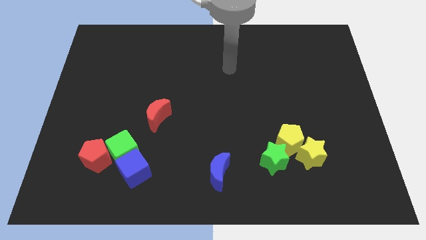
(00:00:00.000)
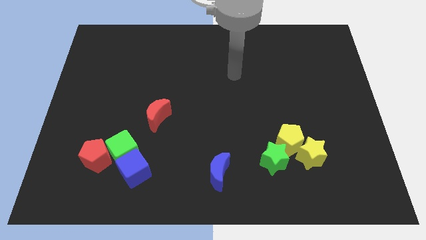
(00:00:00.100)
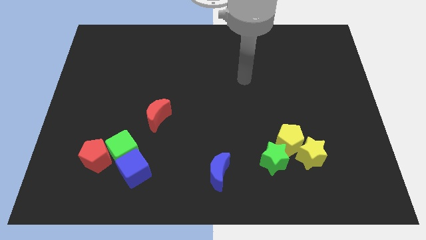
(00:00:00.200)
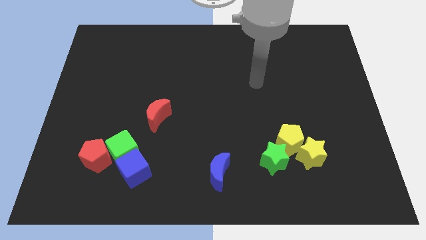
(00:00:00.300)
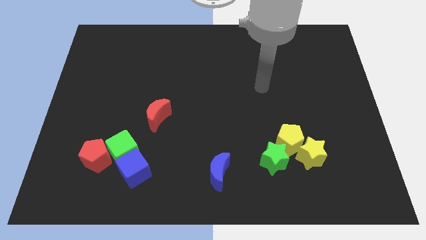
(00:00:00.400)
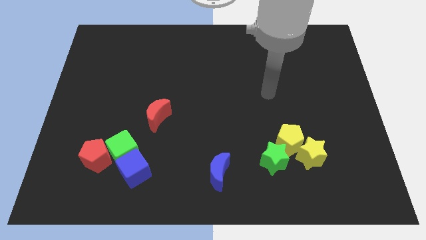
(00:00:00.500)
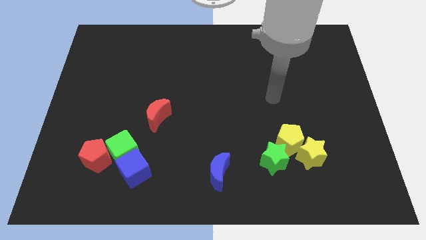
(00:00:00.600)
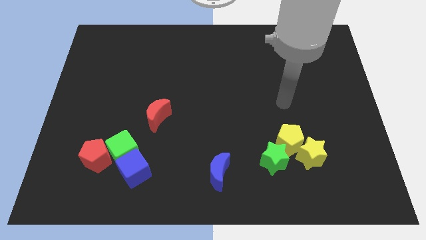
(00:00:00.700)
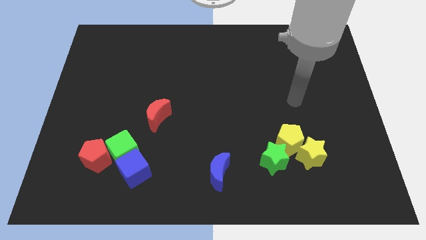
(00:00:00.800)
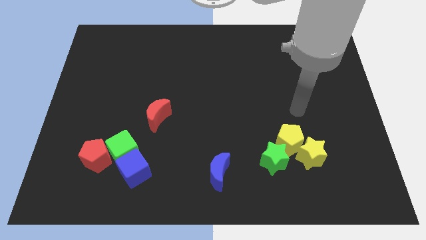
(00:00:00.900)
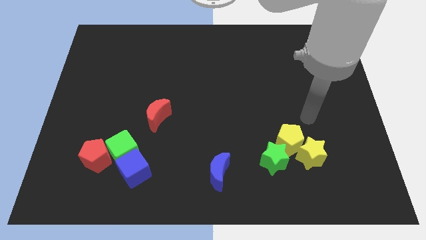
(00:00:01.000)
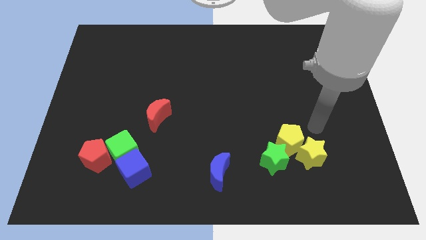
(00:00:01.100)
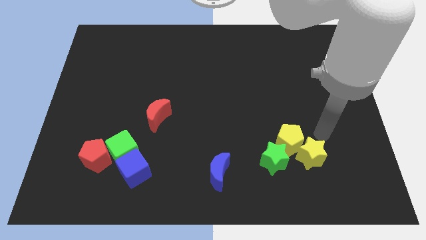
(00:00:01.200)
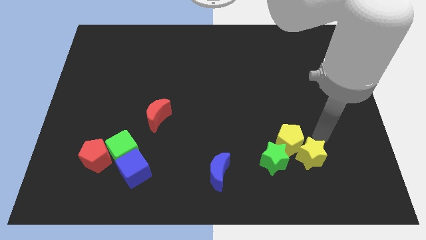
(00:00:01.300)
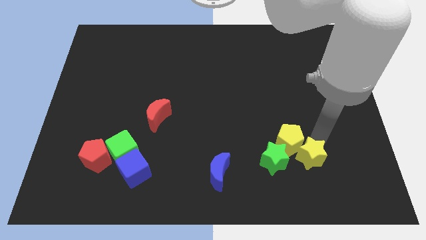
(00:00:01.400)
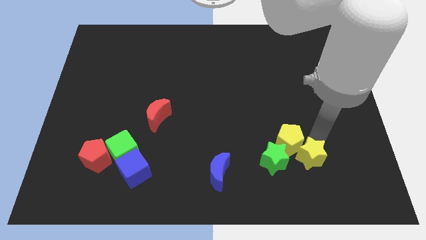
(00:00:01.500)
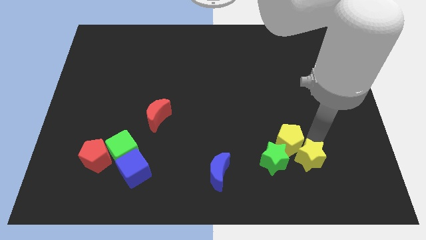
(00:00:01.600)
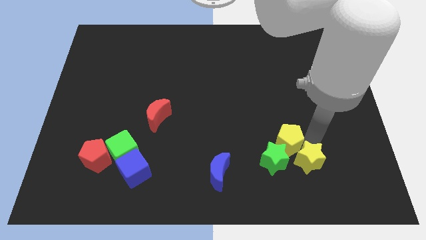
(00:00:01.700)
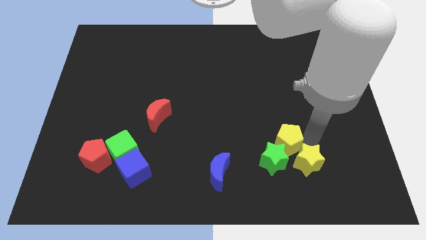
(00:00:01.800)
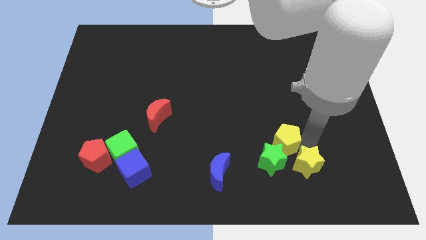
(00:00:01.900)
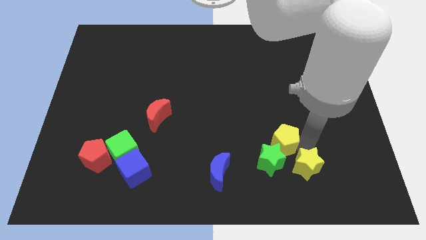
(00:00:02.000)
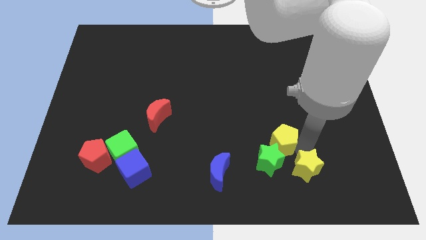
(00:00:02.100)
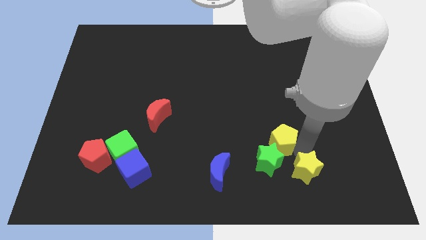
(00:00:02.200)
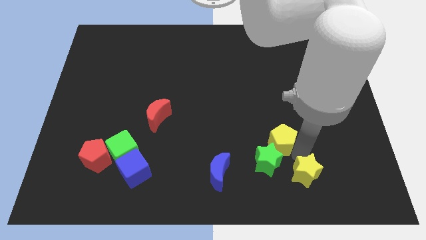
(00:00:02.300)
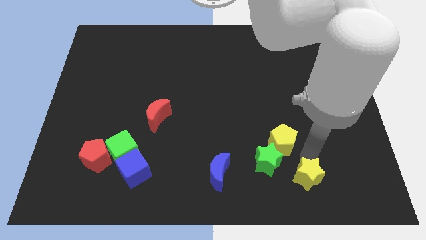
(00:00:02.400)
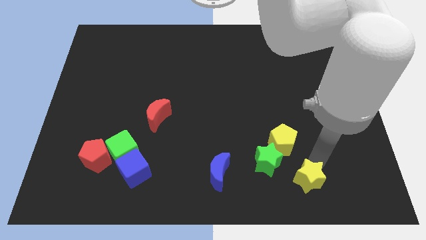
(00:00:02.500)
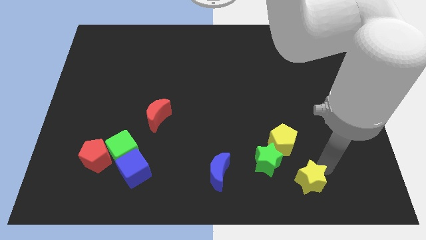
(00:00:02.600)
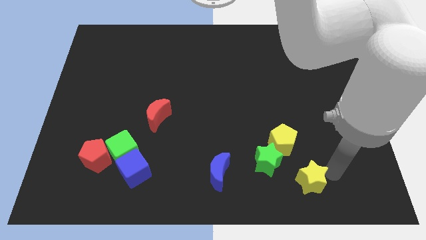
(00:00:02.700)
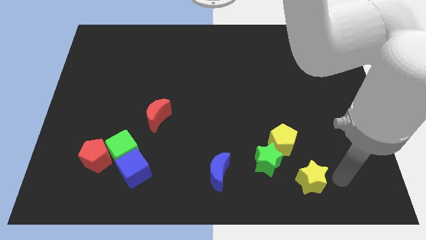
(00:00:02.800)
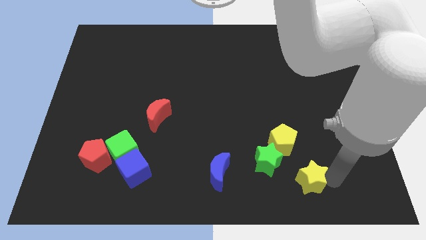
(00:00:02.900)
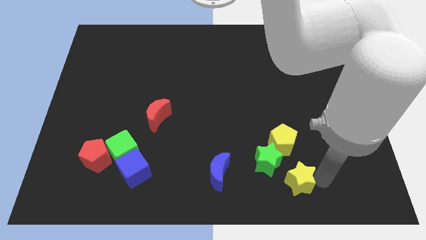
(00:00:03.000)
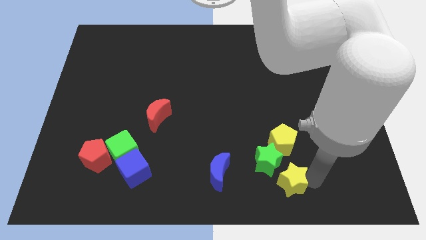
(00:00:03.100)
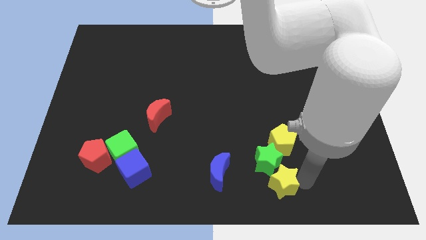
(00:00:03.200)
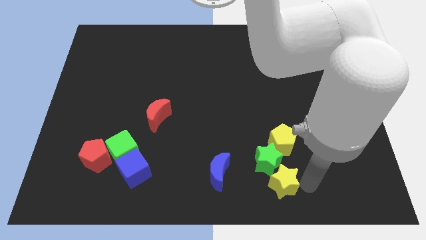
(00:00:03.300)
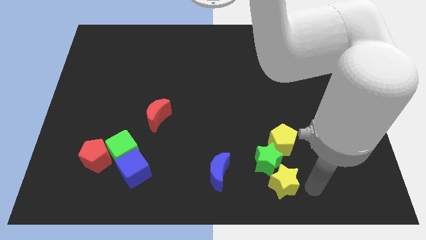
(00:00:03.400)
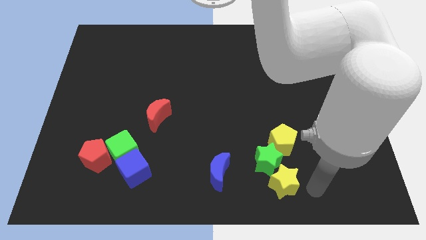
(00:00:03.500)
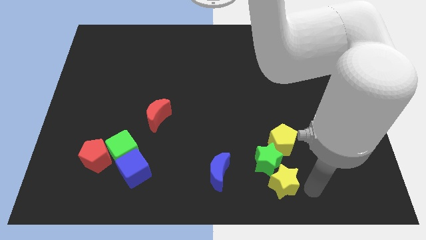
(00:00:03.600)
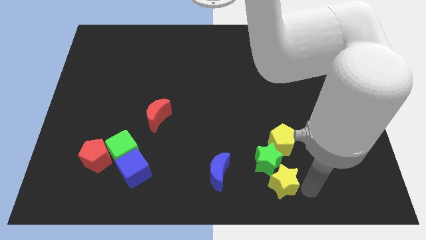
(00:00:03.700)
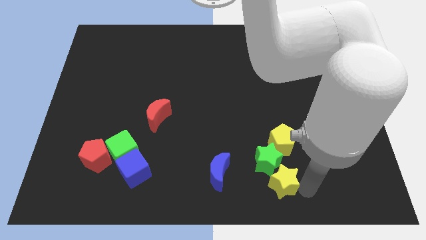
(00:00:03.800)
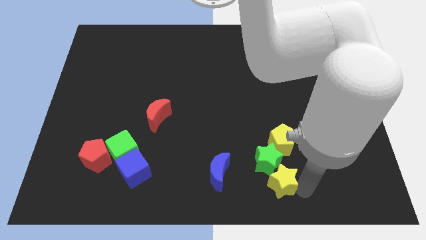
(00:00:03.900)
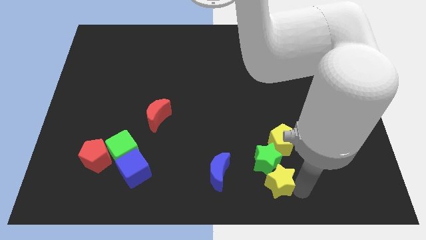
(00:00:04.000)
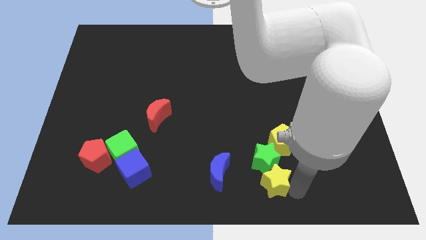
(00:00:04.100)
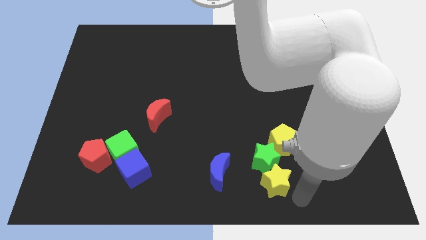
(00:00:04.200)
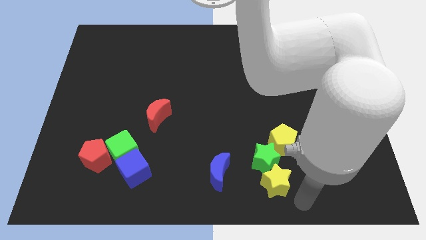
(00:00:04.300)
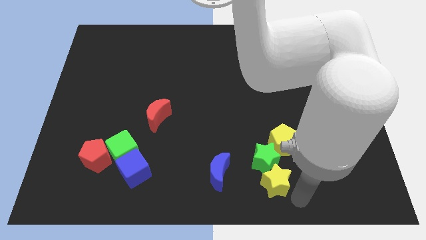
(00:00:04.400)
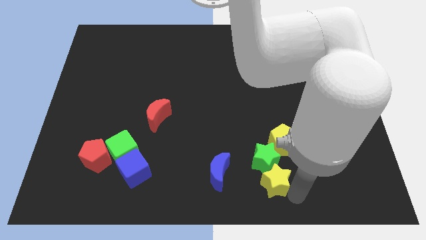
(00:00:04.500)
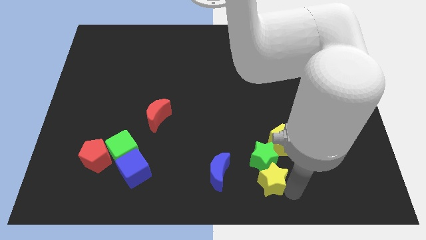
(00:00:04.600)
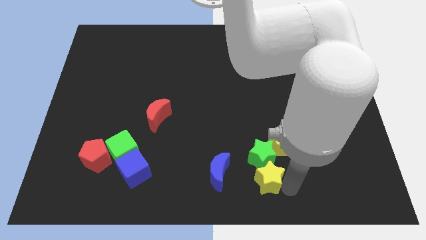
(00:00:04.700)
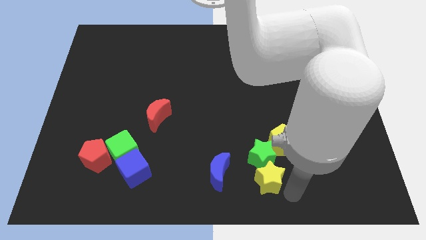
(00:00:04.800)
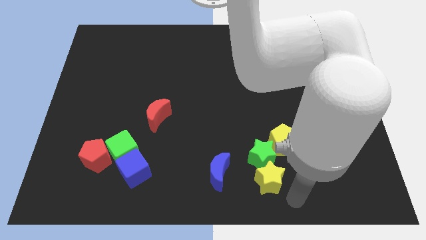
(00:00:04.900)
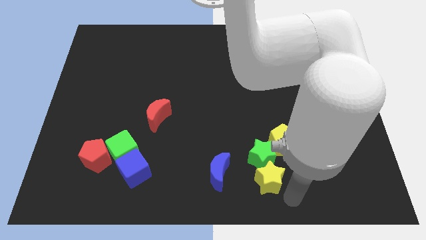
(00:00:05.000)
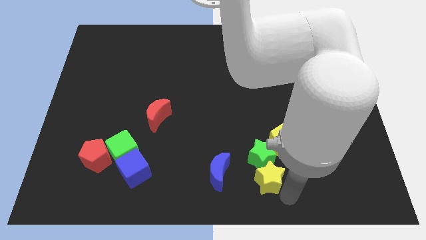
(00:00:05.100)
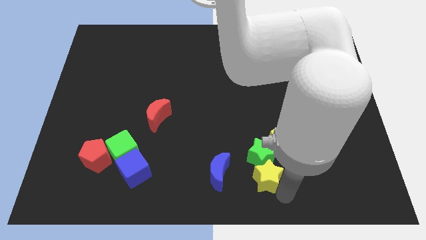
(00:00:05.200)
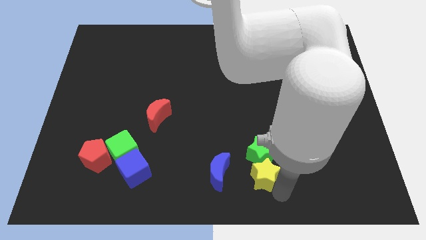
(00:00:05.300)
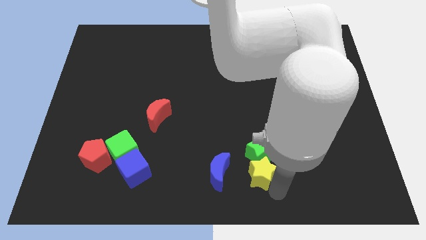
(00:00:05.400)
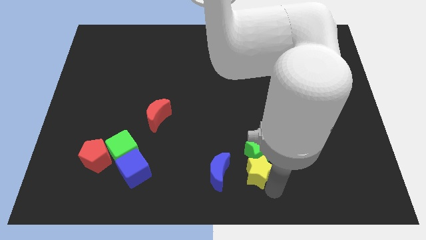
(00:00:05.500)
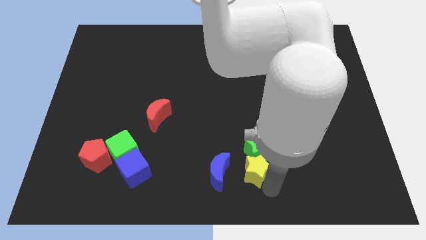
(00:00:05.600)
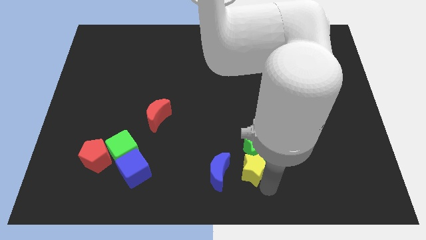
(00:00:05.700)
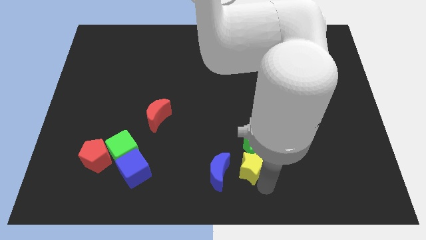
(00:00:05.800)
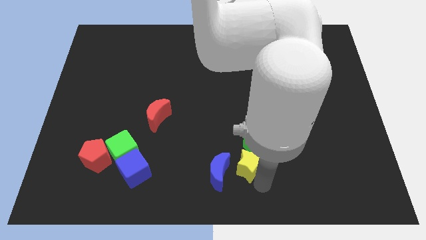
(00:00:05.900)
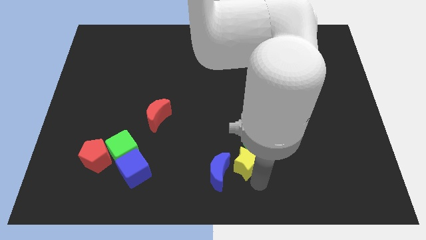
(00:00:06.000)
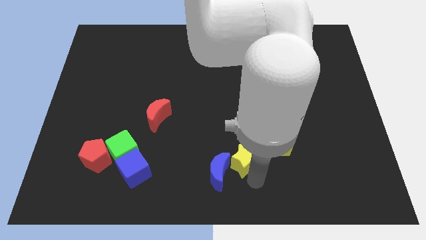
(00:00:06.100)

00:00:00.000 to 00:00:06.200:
slide the yellow star just left of the yellow pentagon

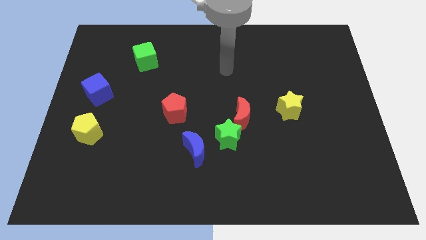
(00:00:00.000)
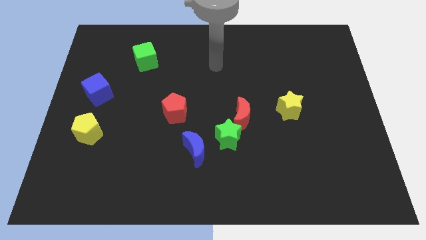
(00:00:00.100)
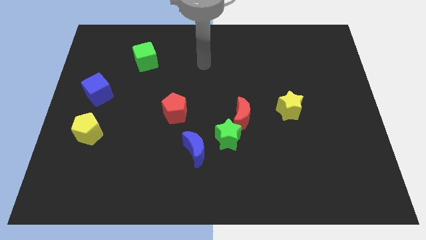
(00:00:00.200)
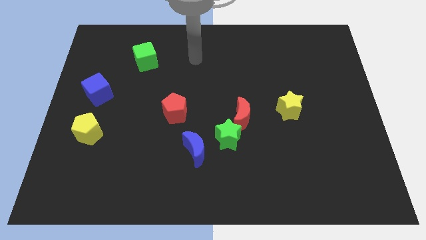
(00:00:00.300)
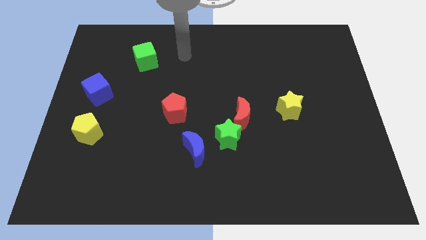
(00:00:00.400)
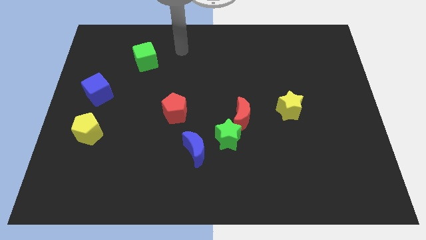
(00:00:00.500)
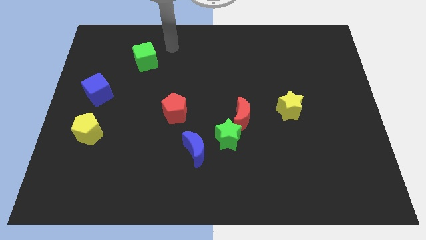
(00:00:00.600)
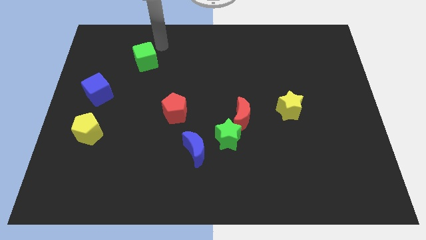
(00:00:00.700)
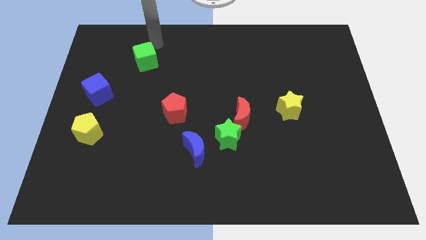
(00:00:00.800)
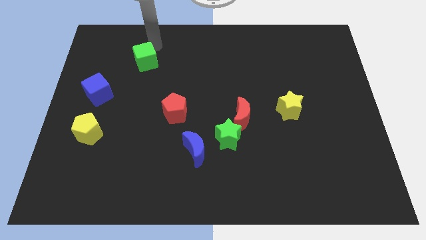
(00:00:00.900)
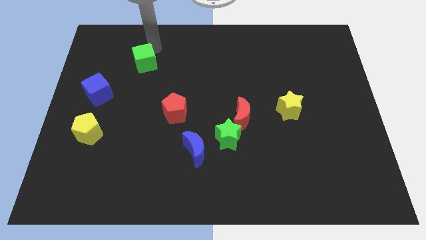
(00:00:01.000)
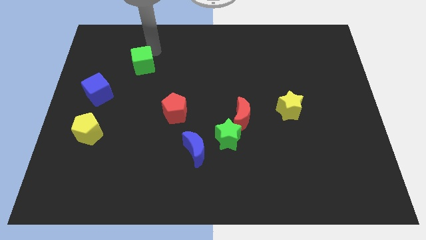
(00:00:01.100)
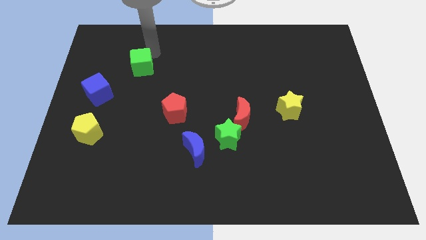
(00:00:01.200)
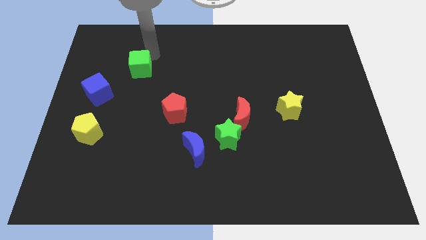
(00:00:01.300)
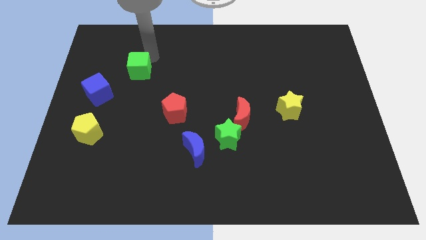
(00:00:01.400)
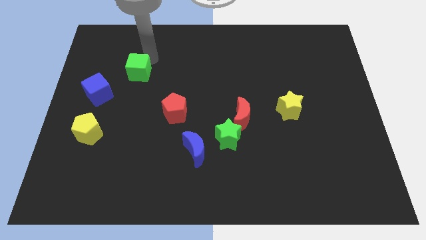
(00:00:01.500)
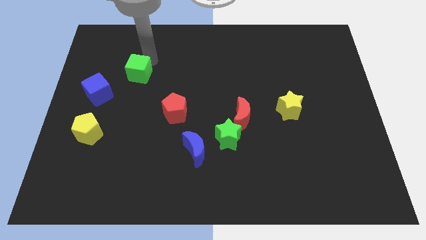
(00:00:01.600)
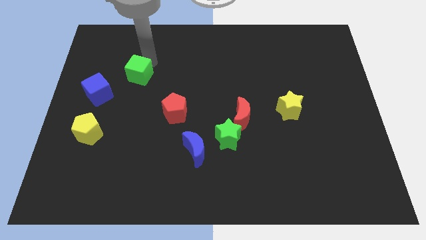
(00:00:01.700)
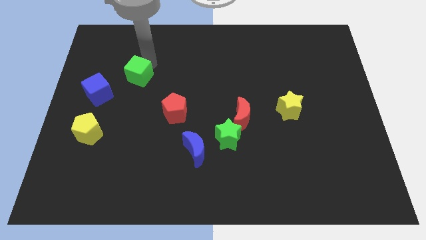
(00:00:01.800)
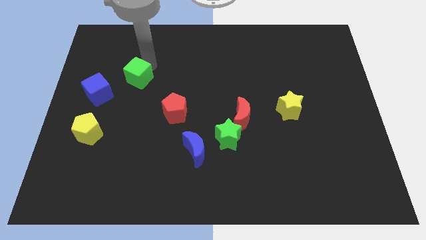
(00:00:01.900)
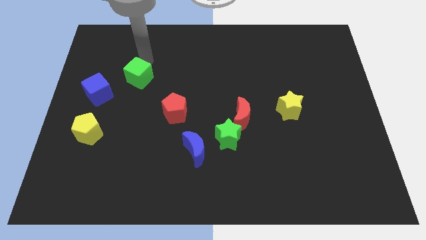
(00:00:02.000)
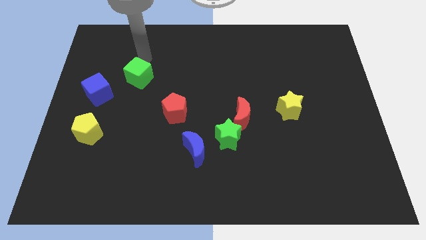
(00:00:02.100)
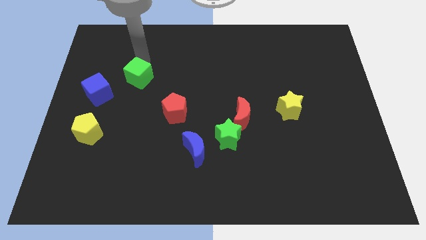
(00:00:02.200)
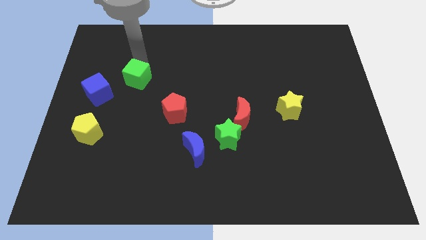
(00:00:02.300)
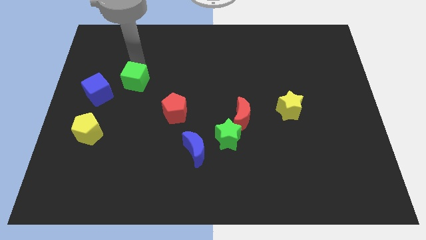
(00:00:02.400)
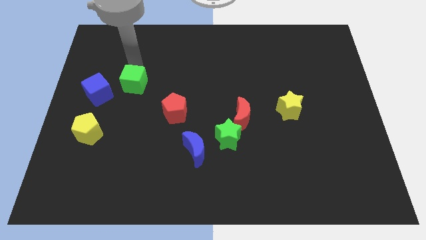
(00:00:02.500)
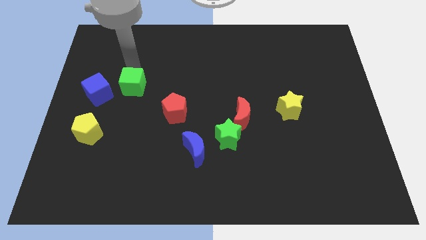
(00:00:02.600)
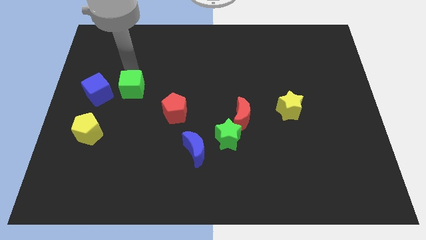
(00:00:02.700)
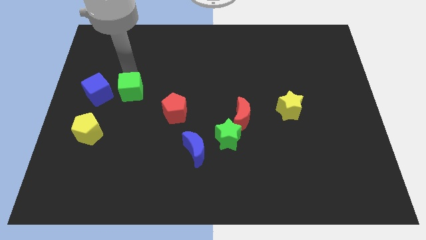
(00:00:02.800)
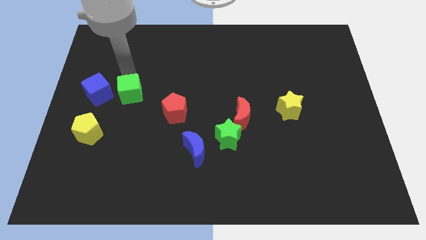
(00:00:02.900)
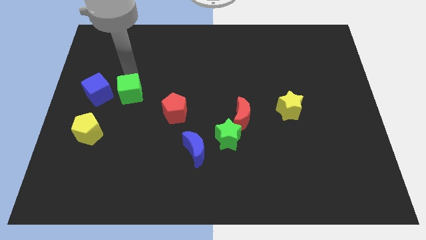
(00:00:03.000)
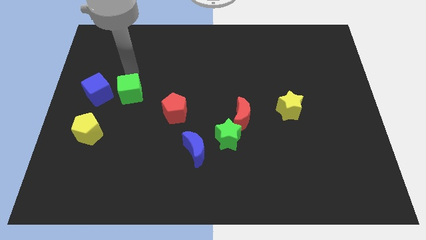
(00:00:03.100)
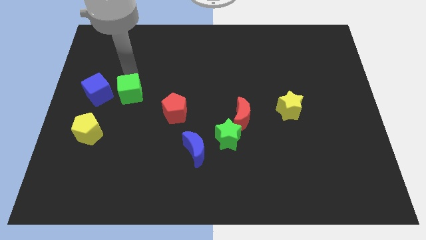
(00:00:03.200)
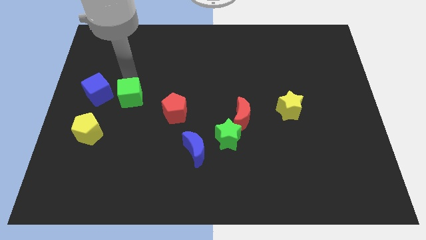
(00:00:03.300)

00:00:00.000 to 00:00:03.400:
push the green cube just left of the red pentagon
